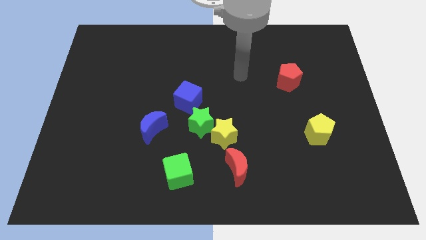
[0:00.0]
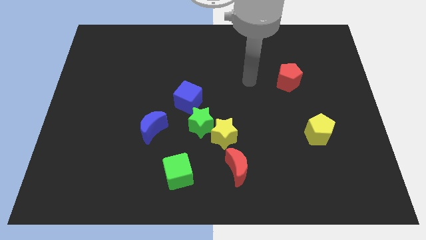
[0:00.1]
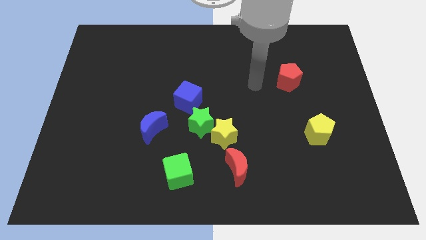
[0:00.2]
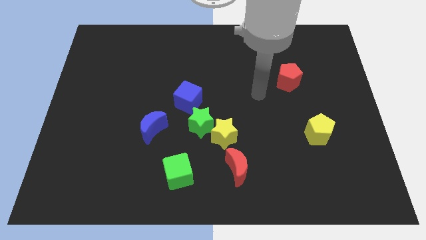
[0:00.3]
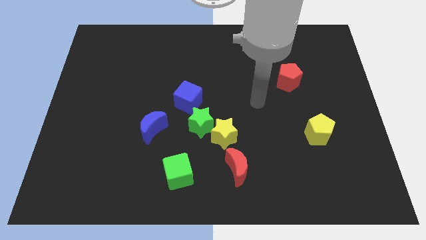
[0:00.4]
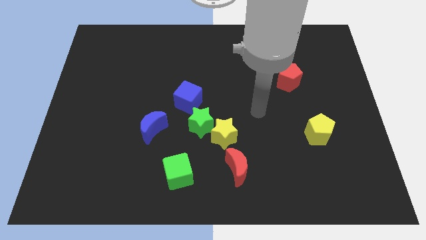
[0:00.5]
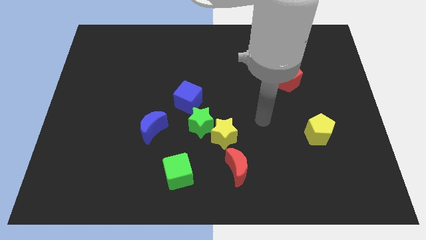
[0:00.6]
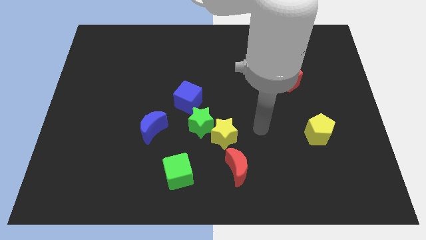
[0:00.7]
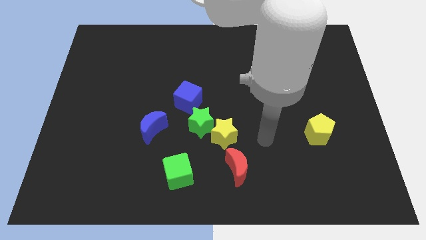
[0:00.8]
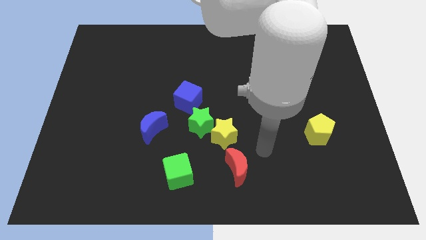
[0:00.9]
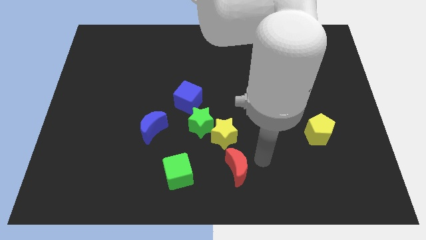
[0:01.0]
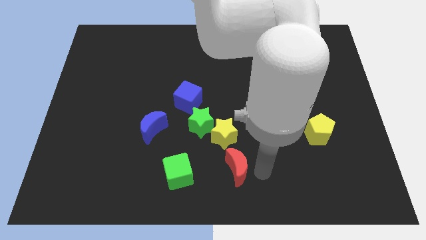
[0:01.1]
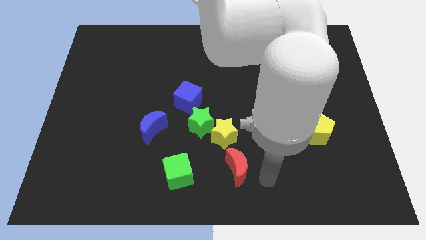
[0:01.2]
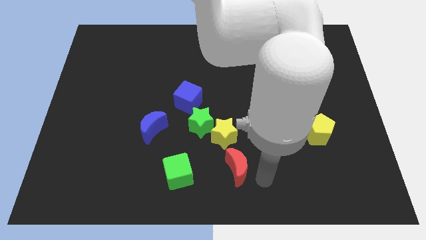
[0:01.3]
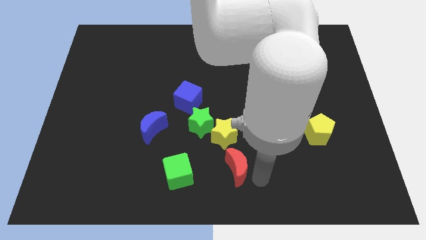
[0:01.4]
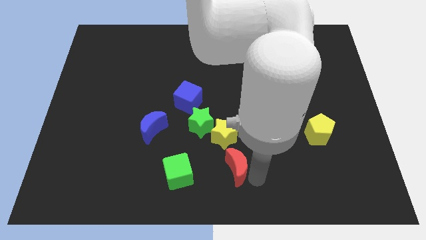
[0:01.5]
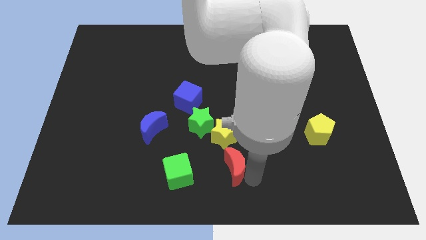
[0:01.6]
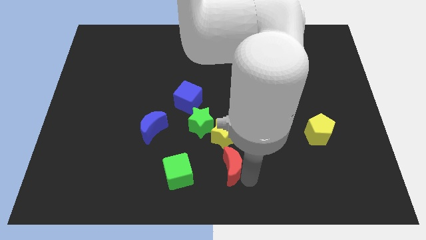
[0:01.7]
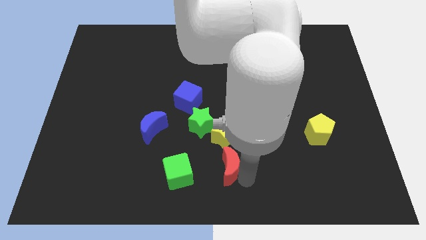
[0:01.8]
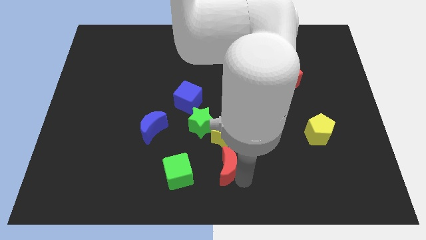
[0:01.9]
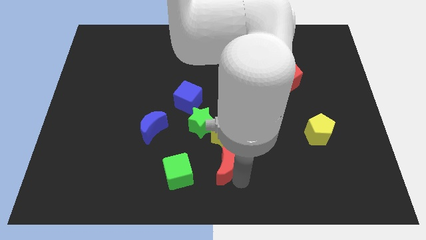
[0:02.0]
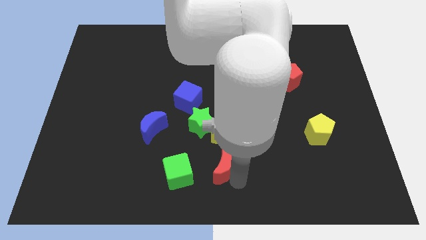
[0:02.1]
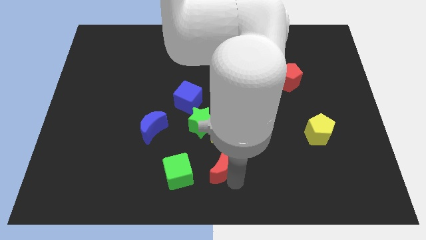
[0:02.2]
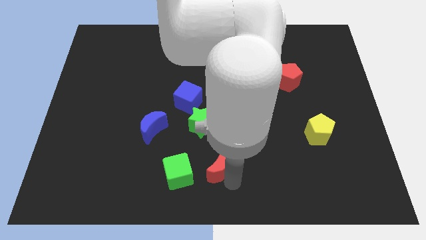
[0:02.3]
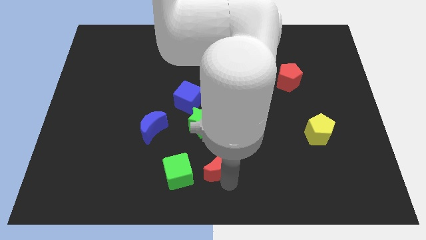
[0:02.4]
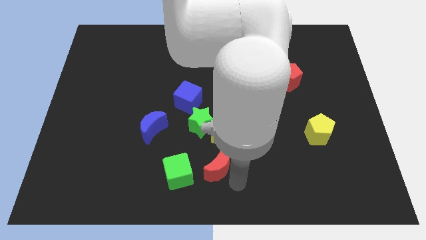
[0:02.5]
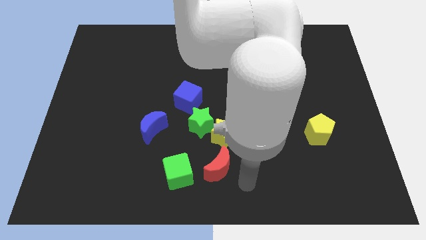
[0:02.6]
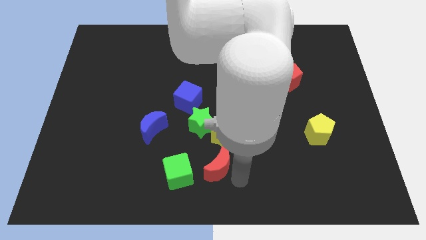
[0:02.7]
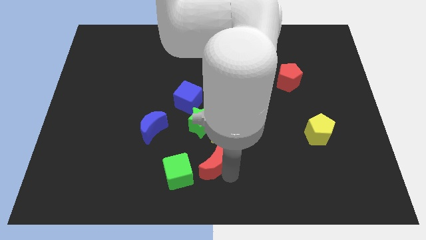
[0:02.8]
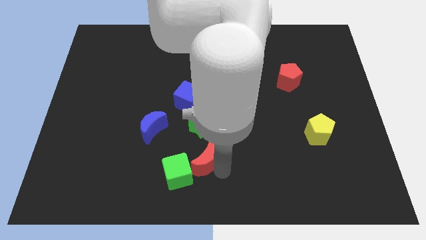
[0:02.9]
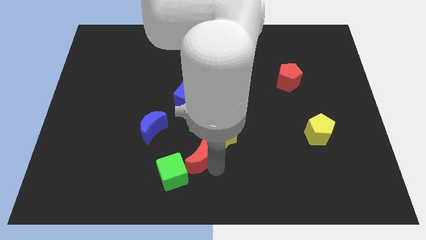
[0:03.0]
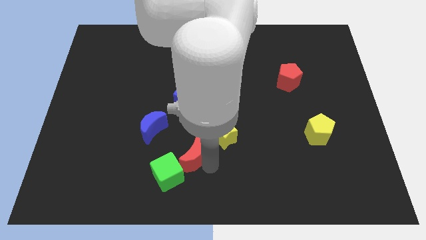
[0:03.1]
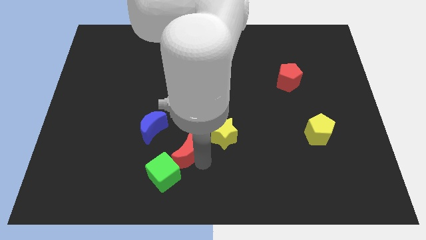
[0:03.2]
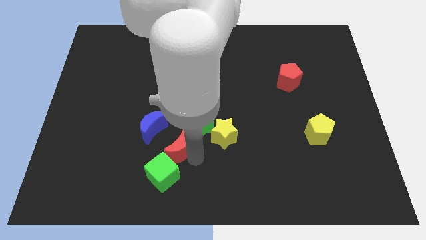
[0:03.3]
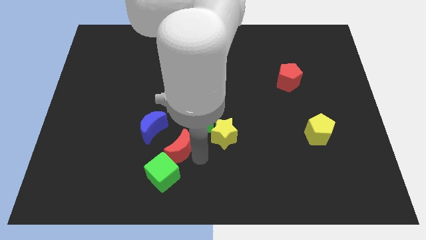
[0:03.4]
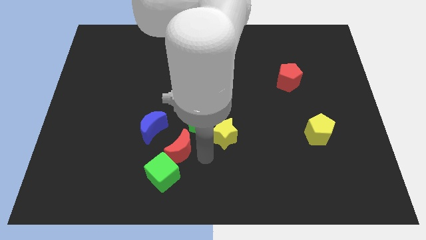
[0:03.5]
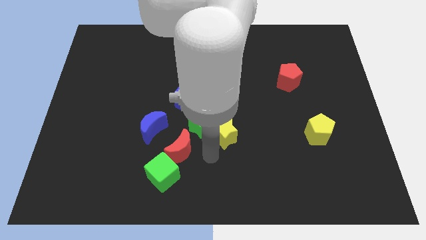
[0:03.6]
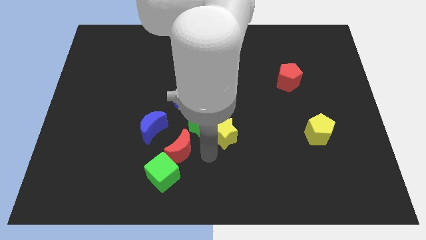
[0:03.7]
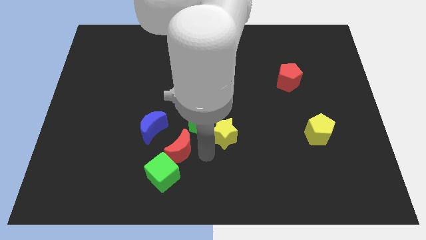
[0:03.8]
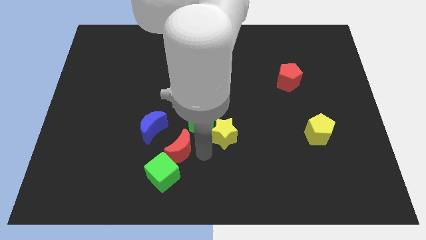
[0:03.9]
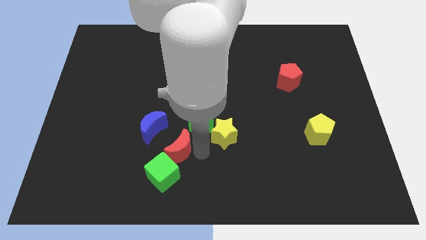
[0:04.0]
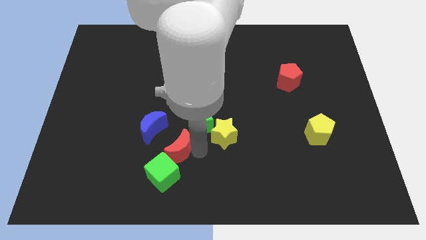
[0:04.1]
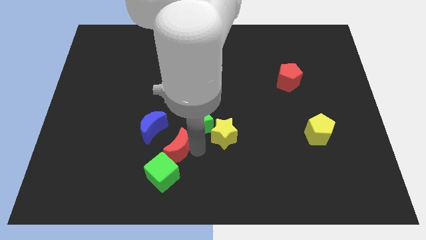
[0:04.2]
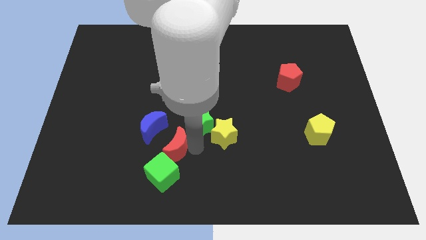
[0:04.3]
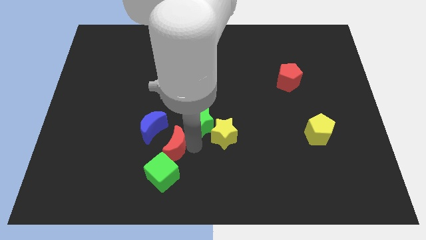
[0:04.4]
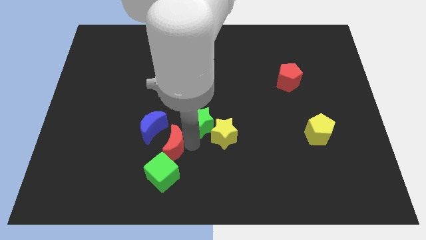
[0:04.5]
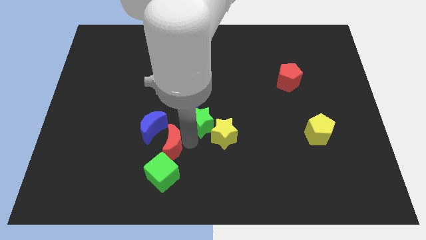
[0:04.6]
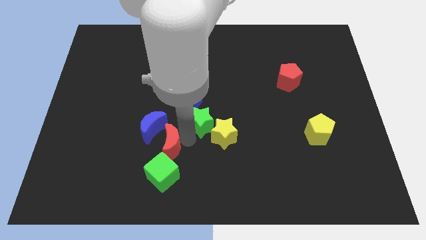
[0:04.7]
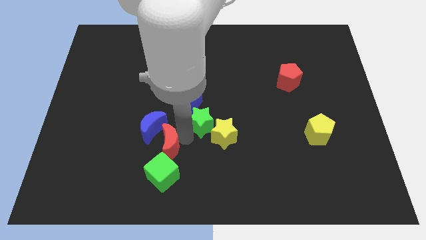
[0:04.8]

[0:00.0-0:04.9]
slide the red moon to the left of the green star

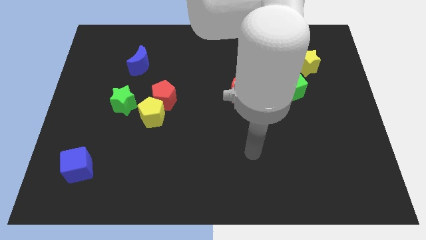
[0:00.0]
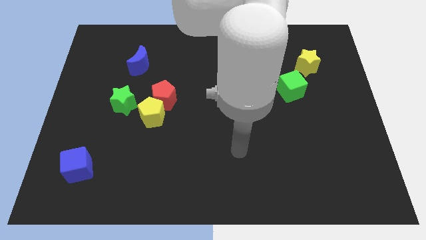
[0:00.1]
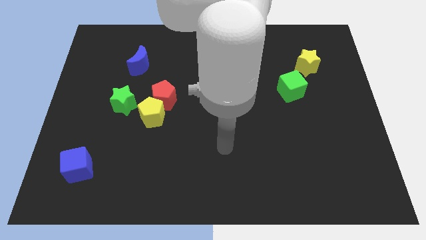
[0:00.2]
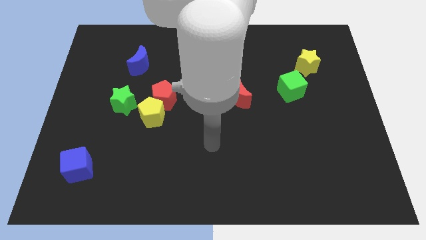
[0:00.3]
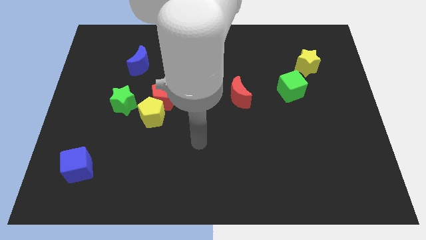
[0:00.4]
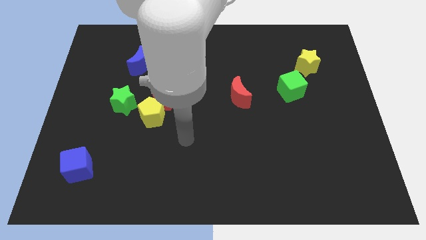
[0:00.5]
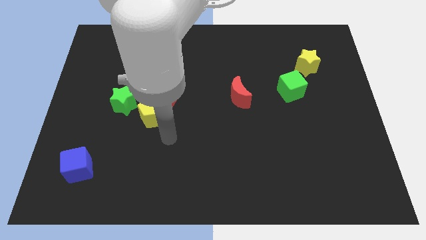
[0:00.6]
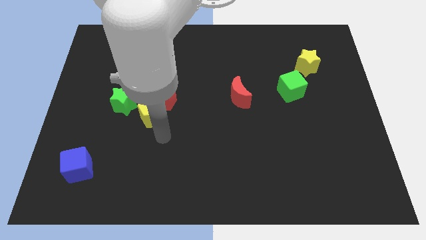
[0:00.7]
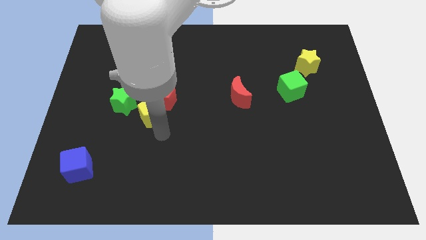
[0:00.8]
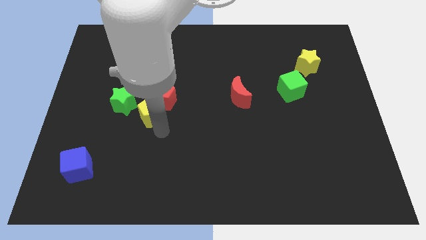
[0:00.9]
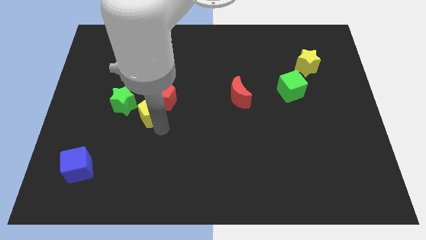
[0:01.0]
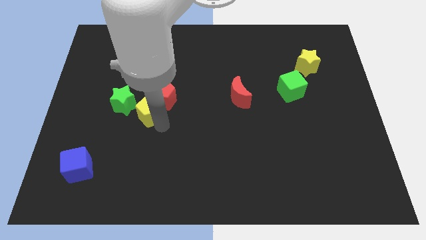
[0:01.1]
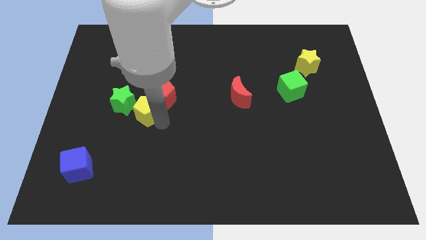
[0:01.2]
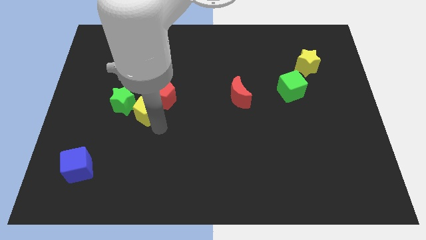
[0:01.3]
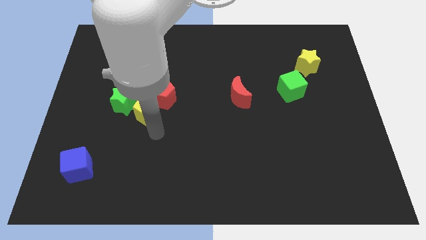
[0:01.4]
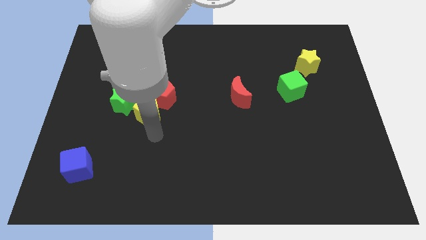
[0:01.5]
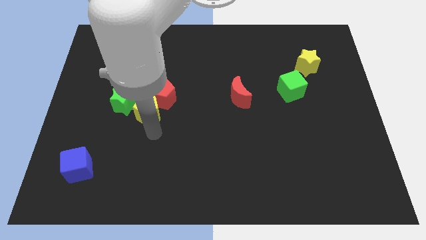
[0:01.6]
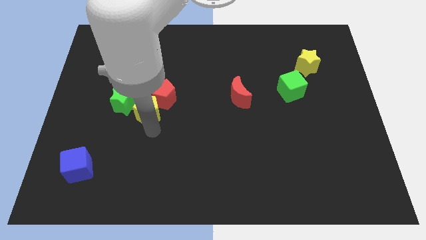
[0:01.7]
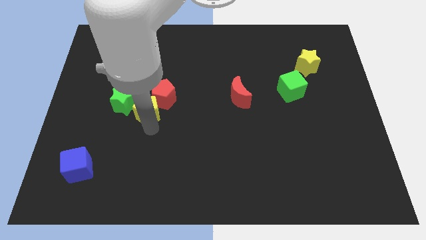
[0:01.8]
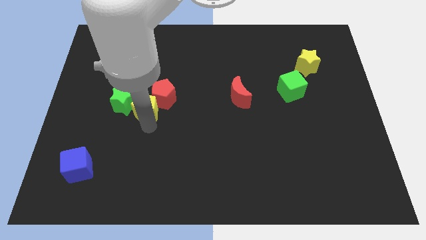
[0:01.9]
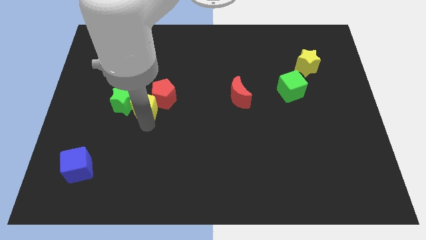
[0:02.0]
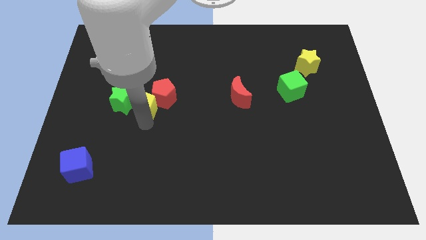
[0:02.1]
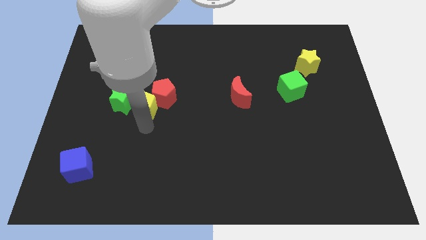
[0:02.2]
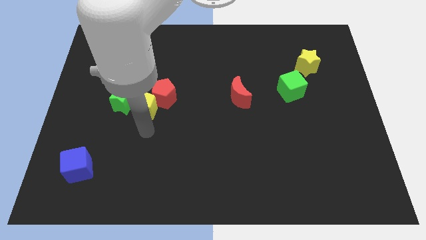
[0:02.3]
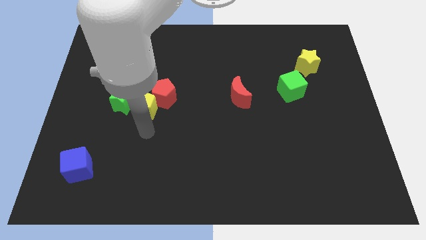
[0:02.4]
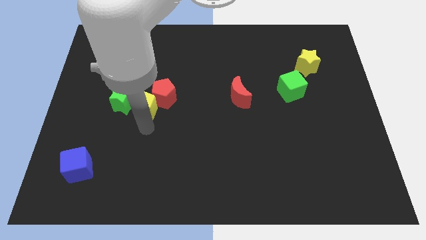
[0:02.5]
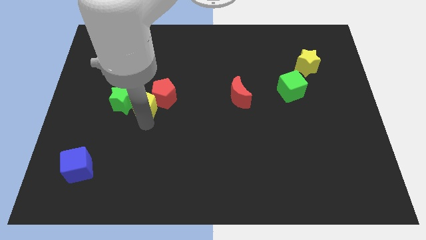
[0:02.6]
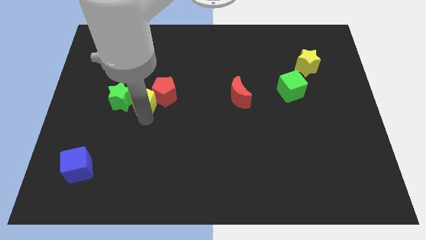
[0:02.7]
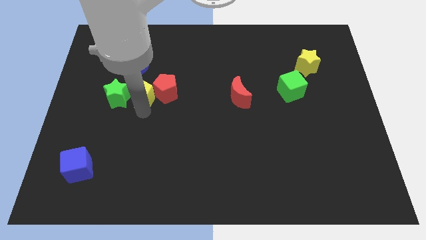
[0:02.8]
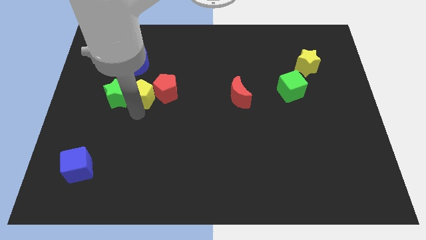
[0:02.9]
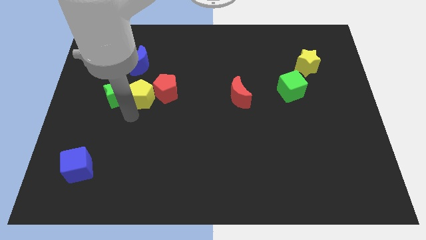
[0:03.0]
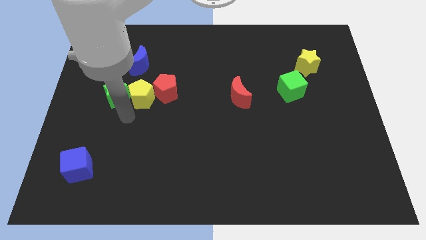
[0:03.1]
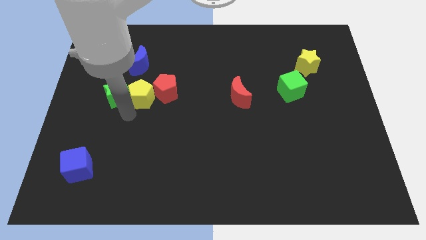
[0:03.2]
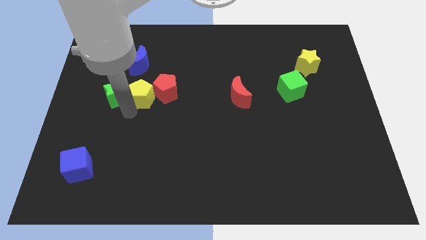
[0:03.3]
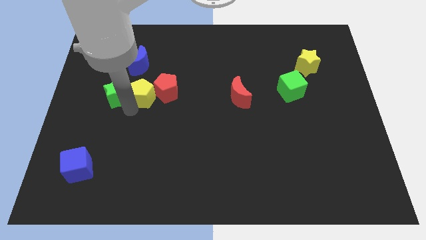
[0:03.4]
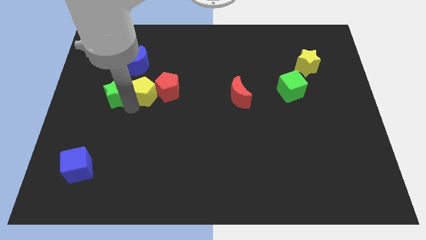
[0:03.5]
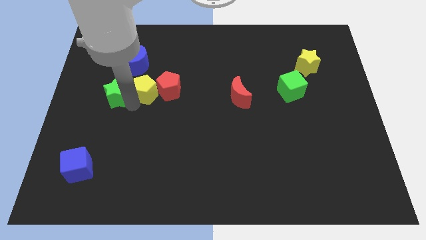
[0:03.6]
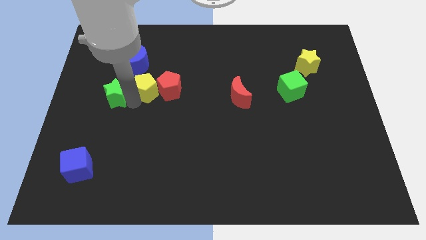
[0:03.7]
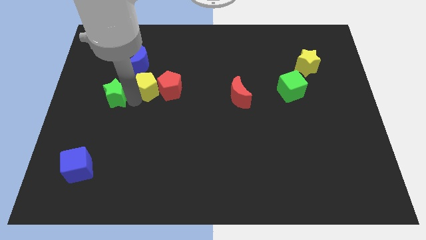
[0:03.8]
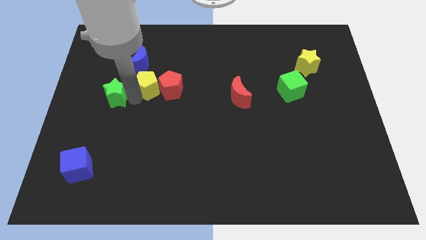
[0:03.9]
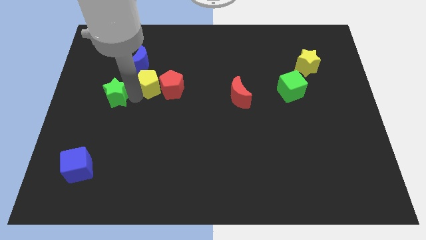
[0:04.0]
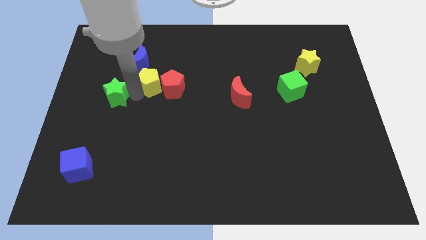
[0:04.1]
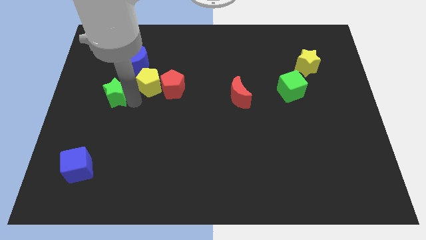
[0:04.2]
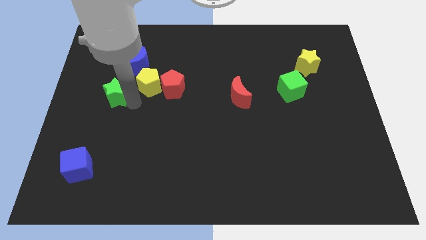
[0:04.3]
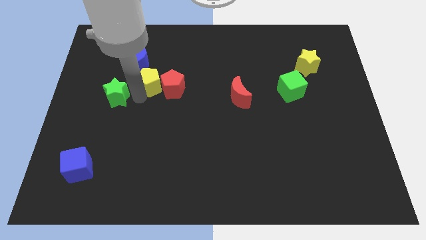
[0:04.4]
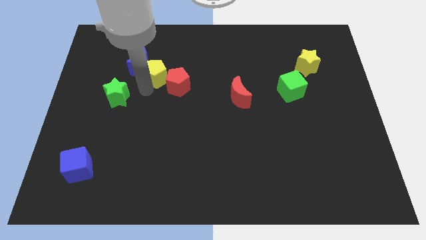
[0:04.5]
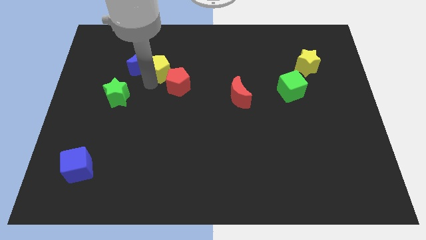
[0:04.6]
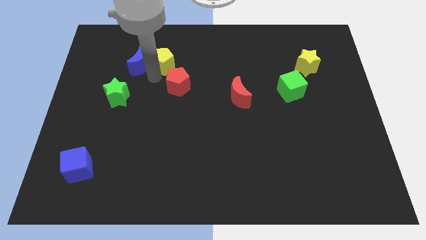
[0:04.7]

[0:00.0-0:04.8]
put the yellow pentagon to the top side of the red pentagon
